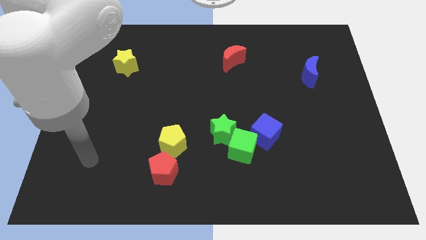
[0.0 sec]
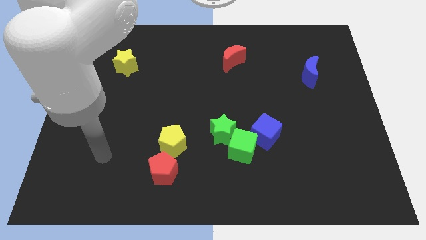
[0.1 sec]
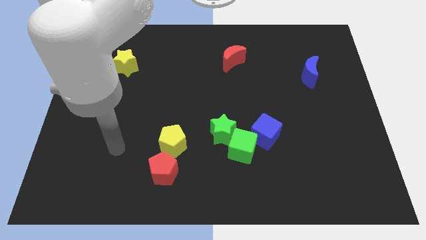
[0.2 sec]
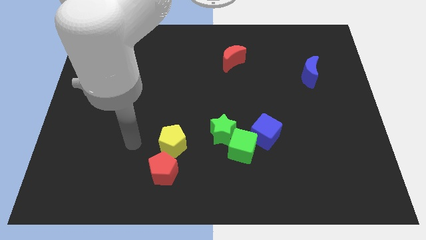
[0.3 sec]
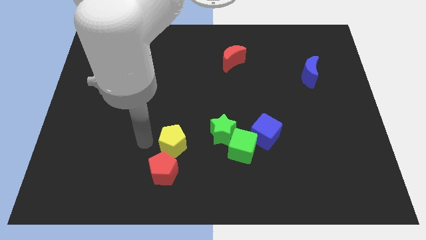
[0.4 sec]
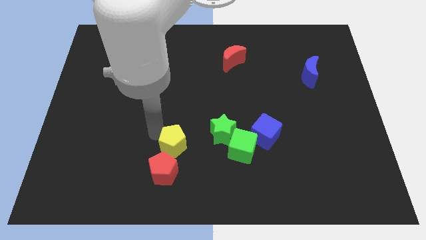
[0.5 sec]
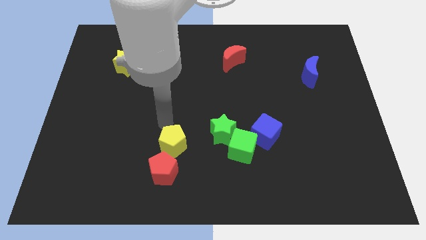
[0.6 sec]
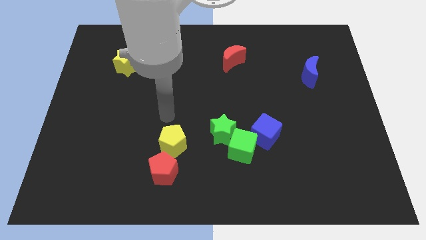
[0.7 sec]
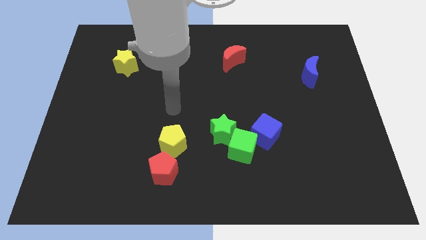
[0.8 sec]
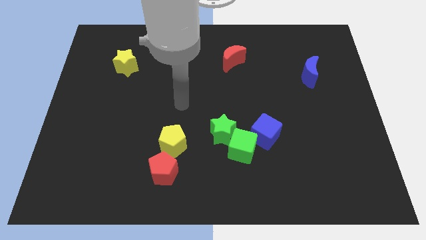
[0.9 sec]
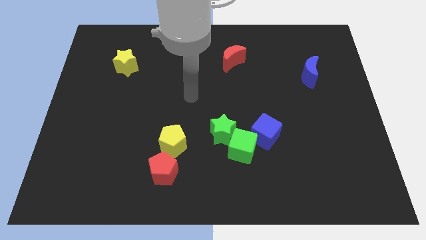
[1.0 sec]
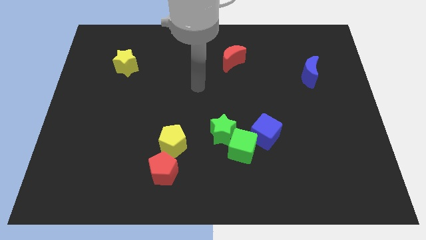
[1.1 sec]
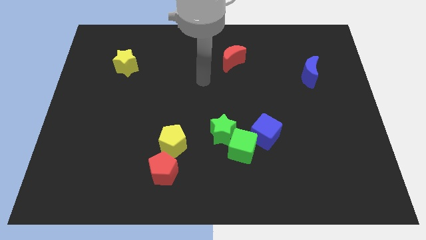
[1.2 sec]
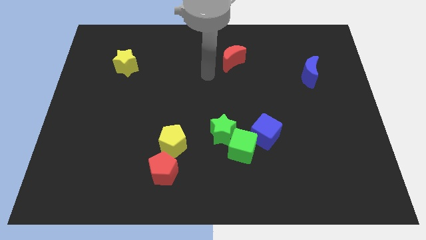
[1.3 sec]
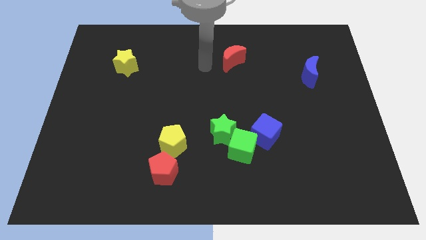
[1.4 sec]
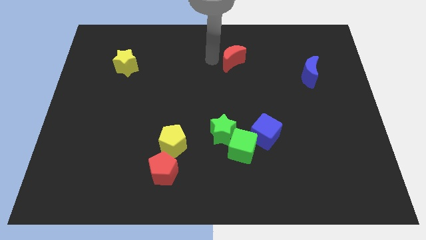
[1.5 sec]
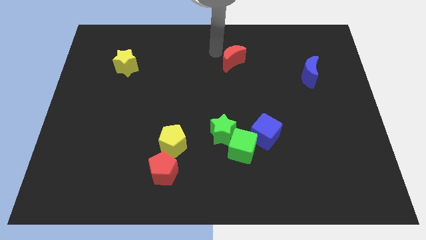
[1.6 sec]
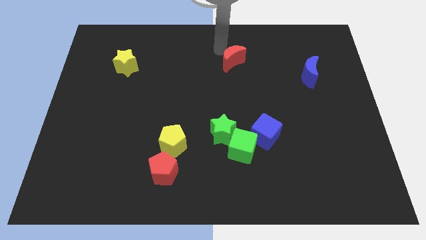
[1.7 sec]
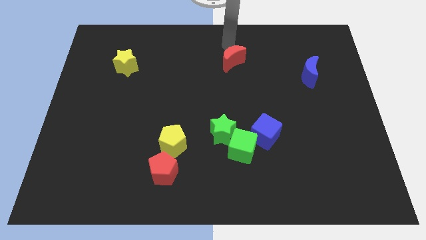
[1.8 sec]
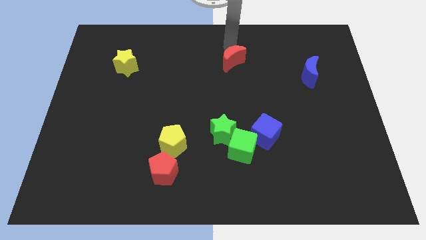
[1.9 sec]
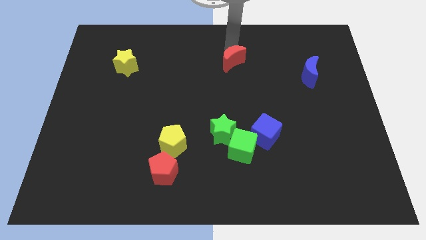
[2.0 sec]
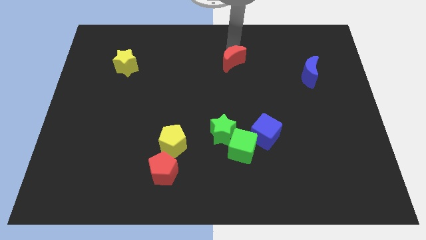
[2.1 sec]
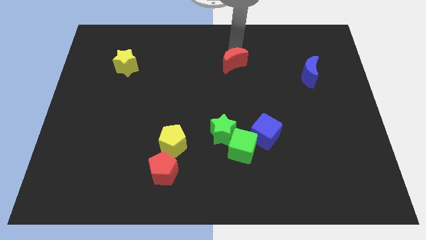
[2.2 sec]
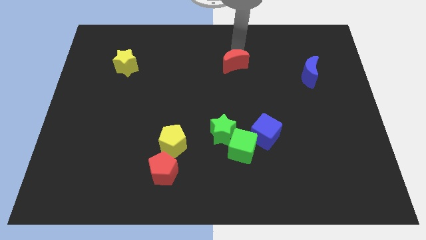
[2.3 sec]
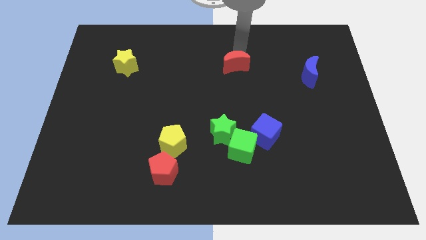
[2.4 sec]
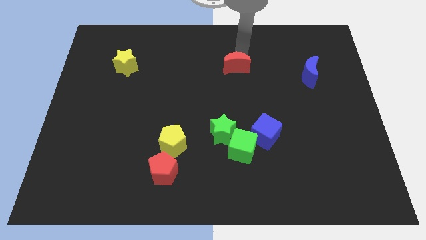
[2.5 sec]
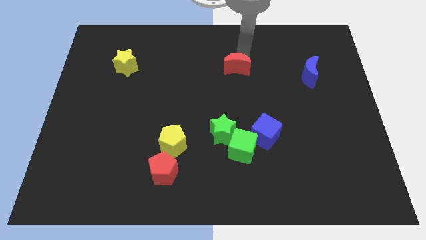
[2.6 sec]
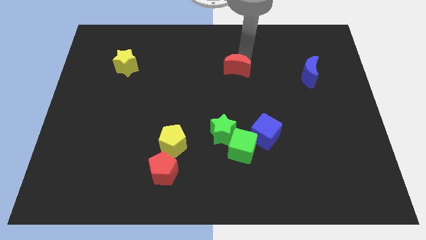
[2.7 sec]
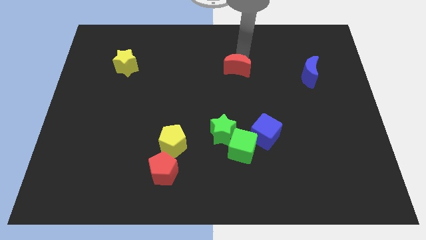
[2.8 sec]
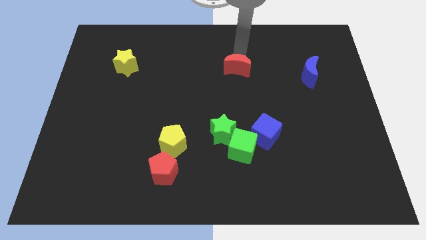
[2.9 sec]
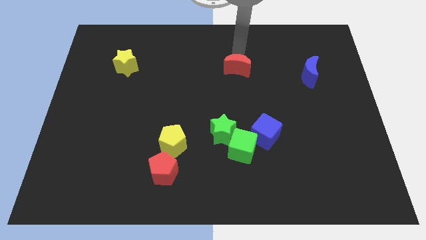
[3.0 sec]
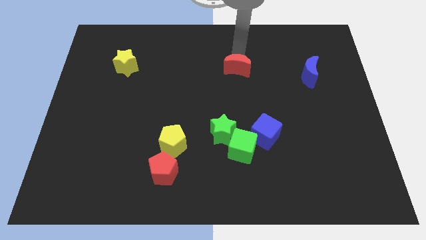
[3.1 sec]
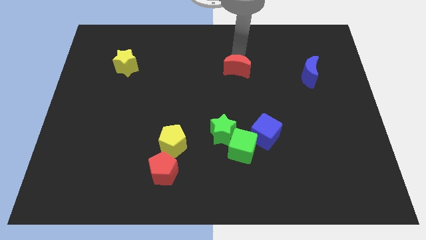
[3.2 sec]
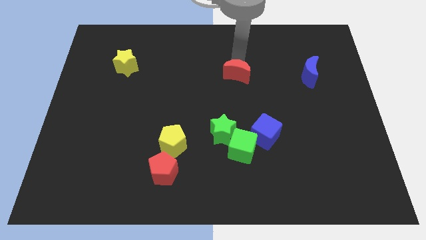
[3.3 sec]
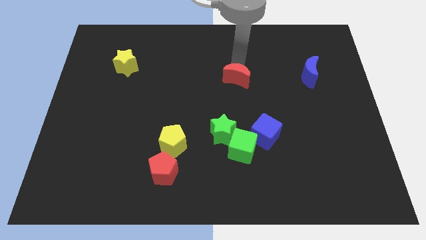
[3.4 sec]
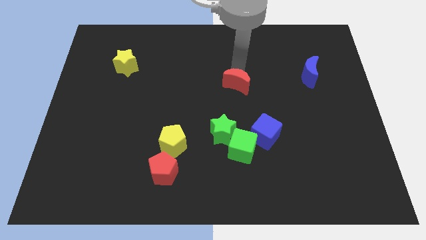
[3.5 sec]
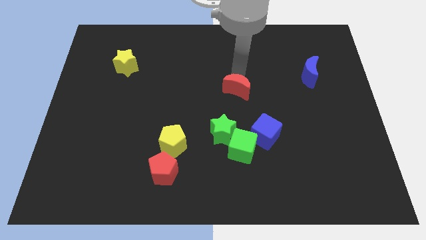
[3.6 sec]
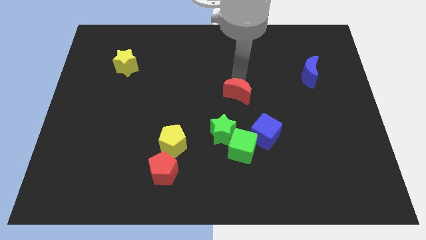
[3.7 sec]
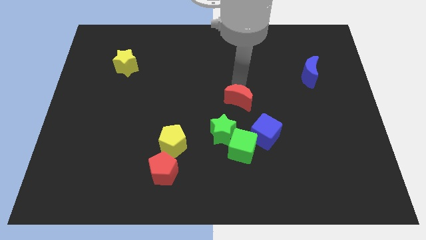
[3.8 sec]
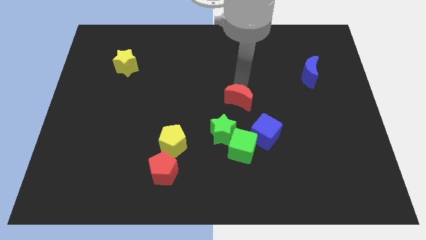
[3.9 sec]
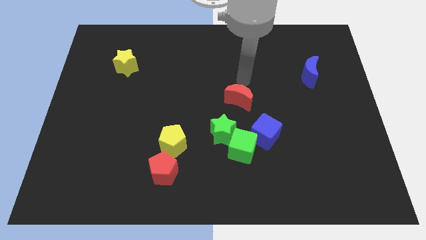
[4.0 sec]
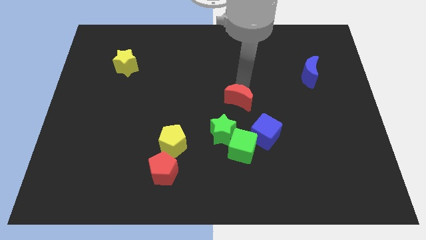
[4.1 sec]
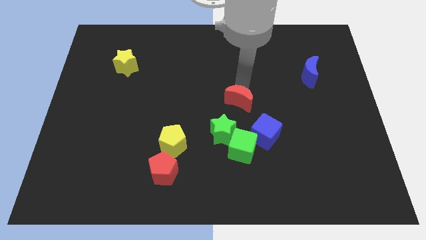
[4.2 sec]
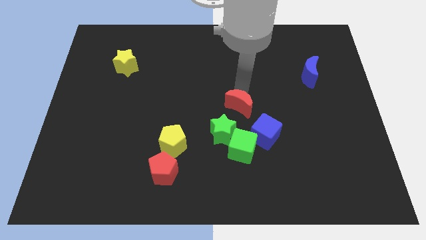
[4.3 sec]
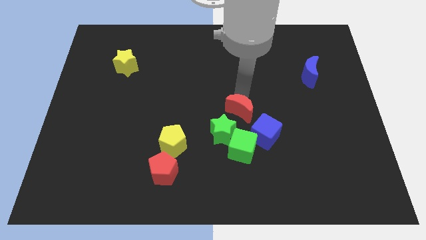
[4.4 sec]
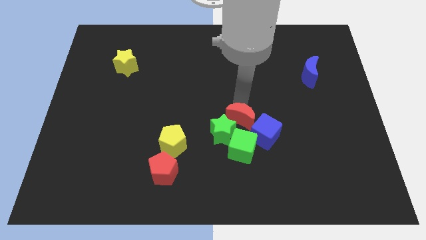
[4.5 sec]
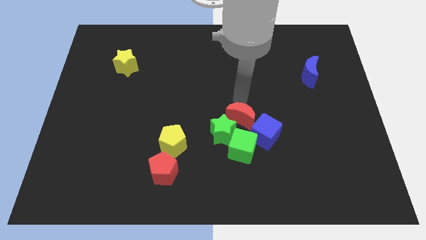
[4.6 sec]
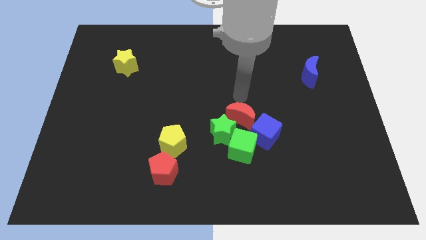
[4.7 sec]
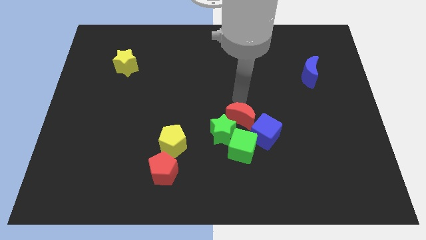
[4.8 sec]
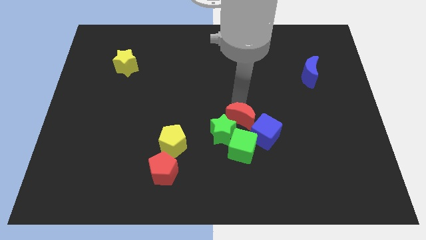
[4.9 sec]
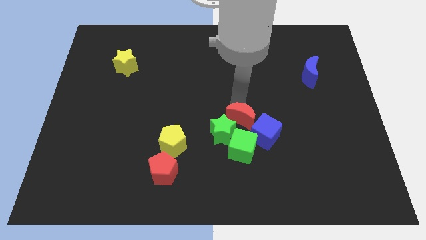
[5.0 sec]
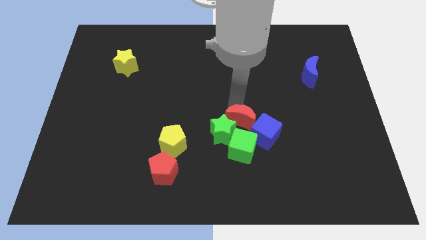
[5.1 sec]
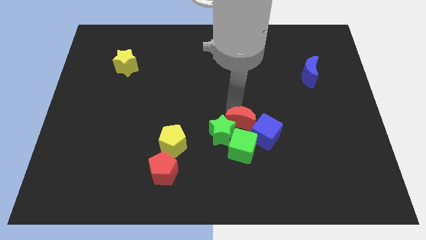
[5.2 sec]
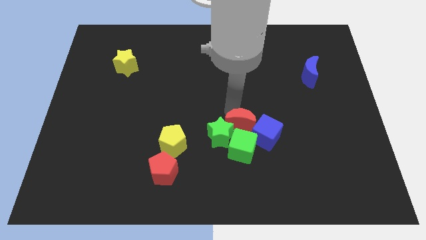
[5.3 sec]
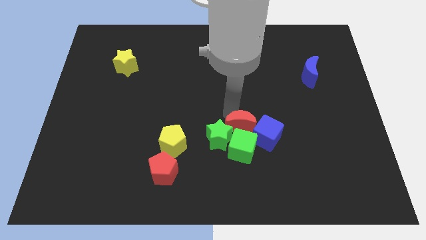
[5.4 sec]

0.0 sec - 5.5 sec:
push the red moon close to the green cube

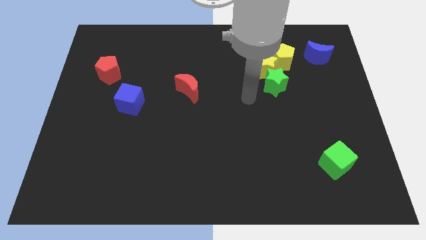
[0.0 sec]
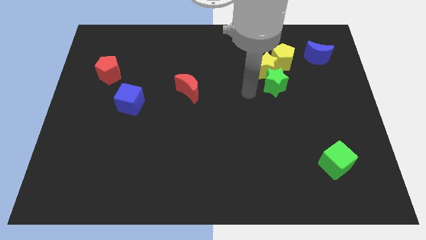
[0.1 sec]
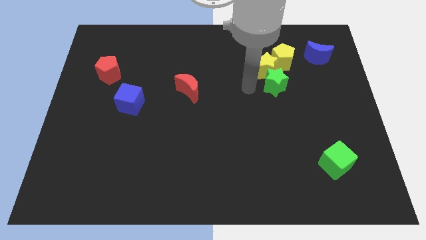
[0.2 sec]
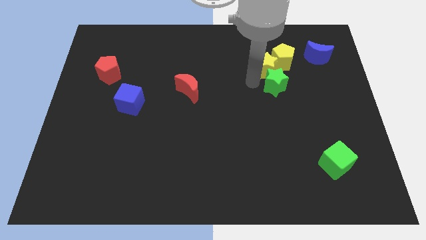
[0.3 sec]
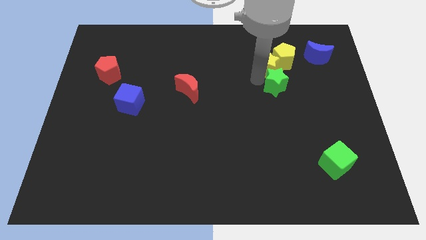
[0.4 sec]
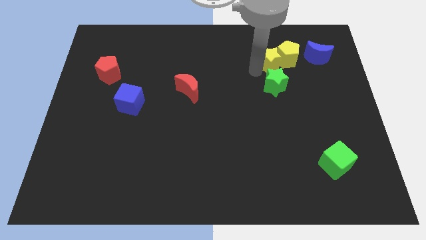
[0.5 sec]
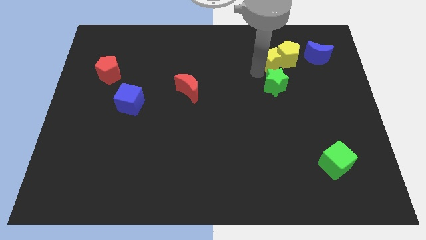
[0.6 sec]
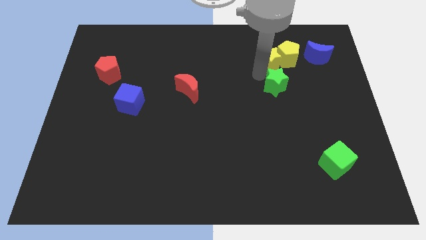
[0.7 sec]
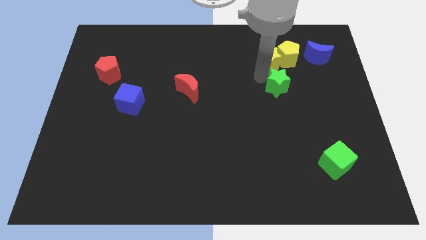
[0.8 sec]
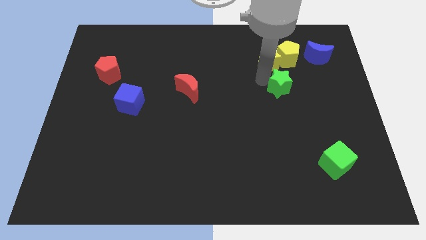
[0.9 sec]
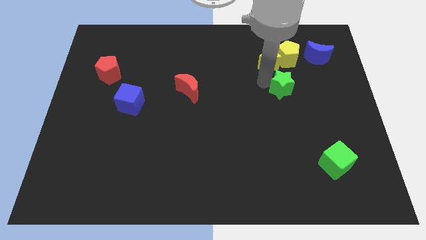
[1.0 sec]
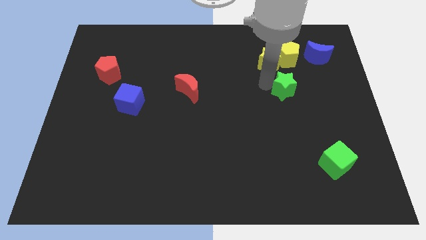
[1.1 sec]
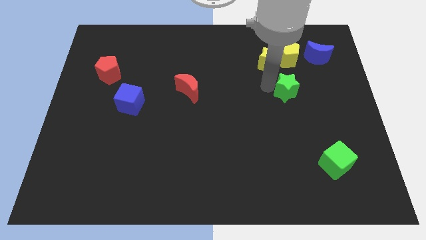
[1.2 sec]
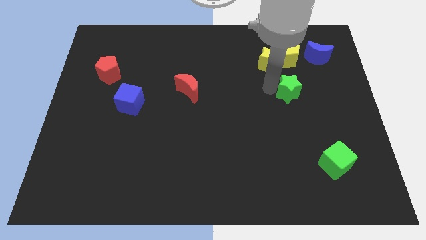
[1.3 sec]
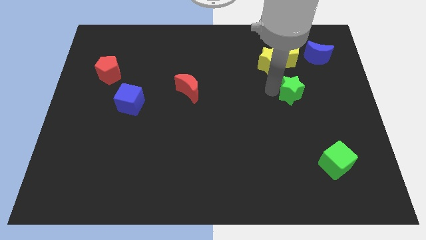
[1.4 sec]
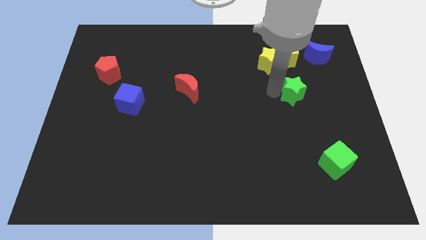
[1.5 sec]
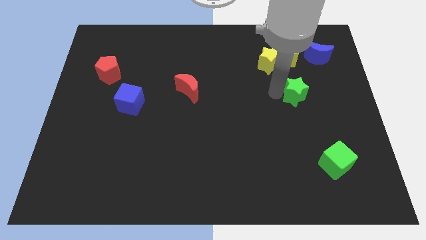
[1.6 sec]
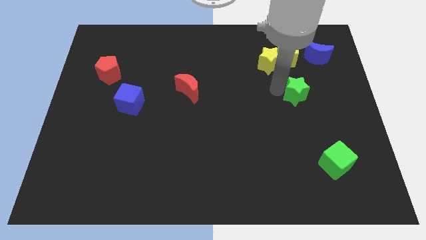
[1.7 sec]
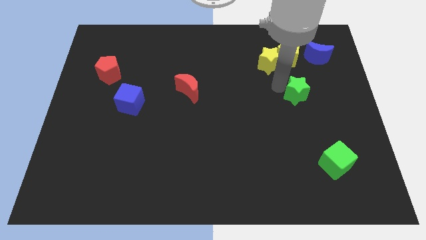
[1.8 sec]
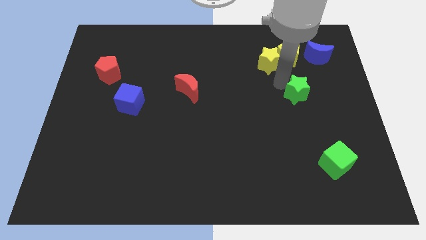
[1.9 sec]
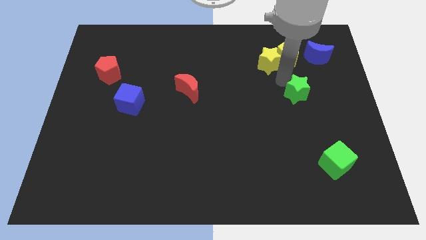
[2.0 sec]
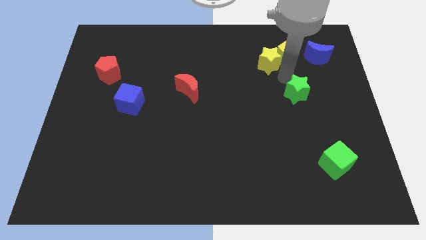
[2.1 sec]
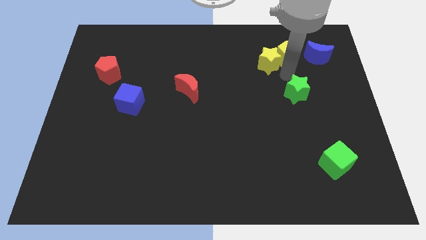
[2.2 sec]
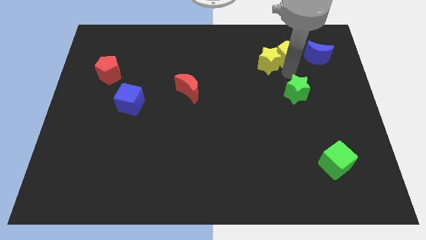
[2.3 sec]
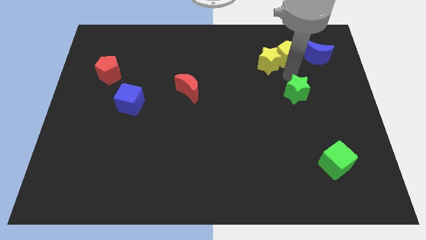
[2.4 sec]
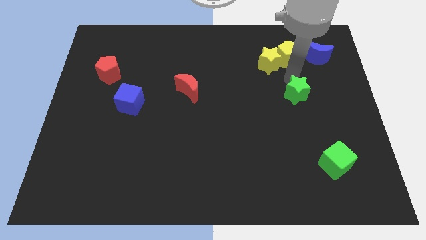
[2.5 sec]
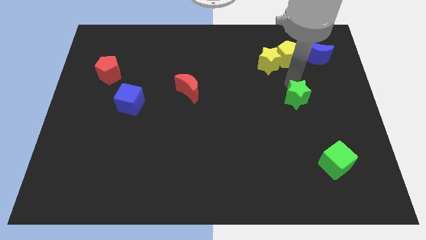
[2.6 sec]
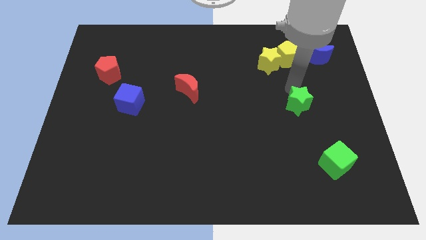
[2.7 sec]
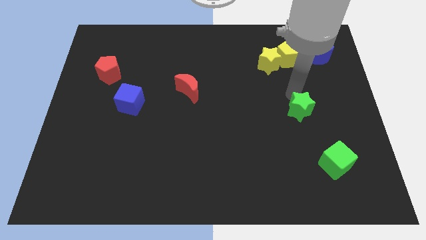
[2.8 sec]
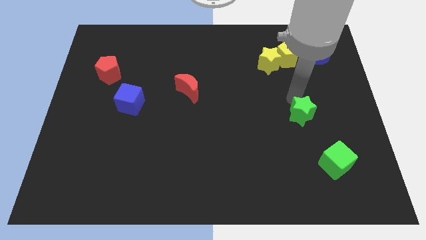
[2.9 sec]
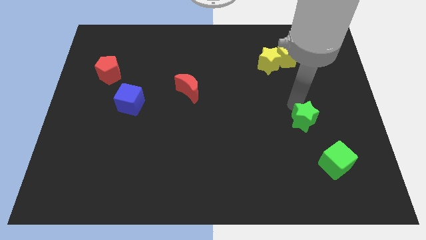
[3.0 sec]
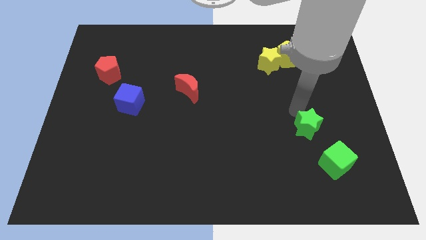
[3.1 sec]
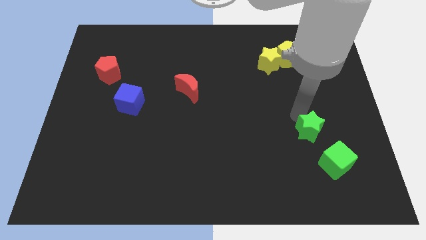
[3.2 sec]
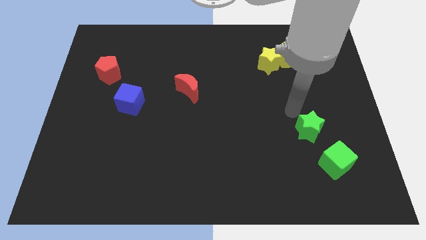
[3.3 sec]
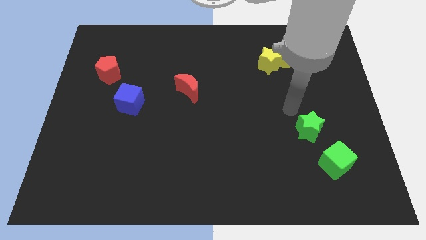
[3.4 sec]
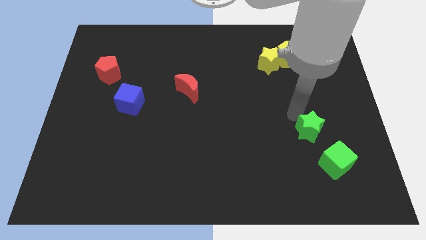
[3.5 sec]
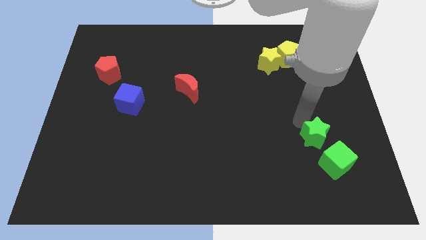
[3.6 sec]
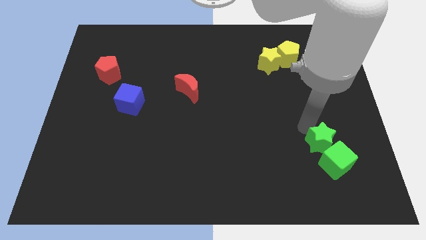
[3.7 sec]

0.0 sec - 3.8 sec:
slide the green star towards the green cube
